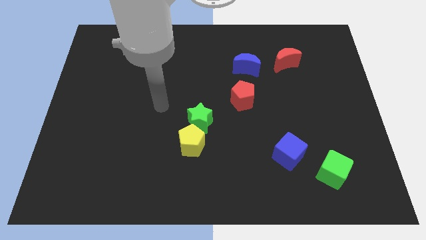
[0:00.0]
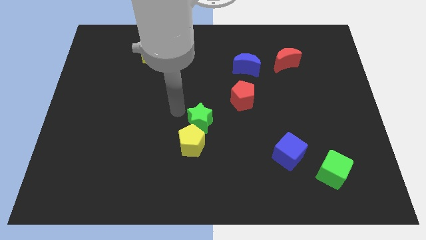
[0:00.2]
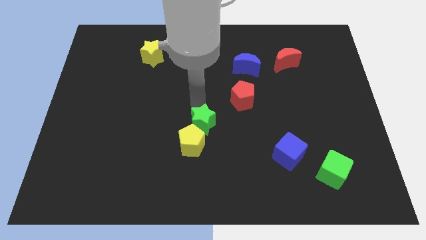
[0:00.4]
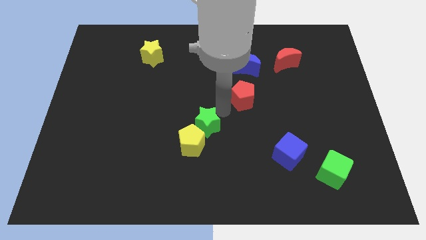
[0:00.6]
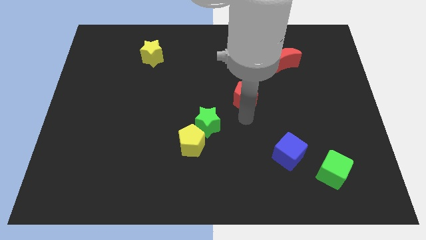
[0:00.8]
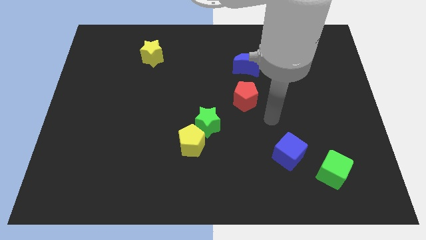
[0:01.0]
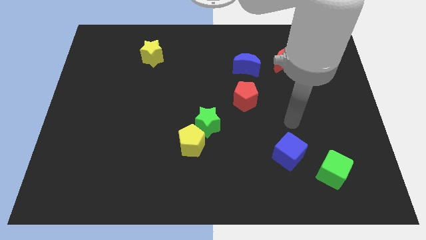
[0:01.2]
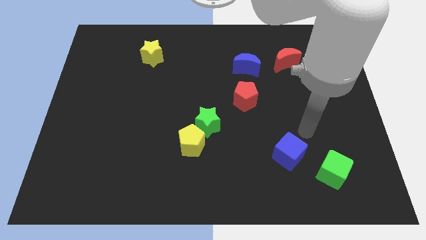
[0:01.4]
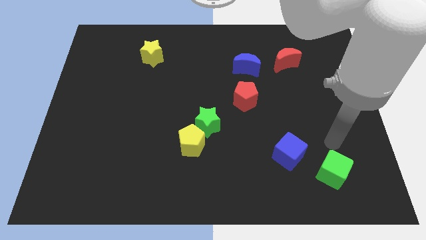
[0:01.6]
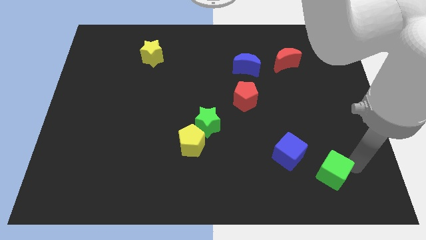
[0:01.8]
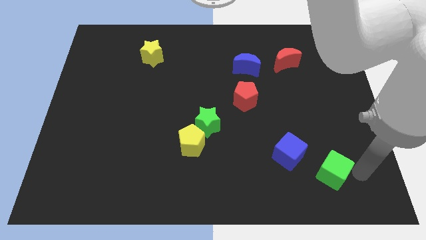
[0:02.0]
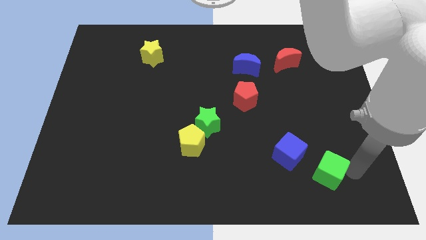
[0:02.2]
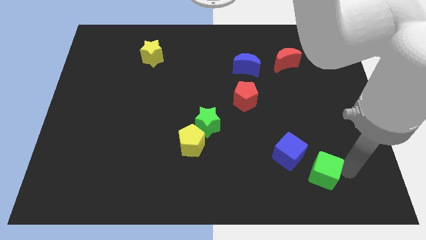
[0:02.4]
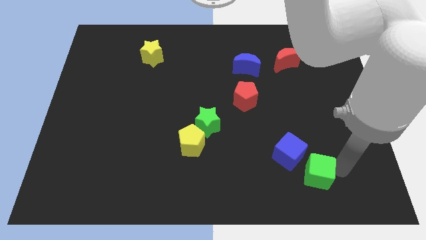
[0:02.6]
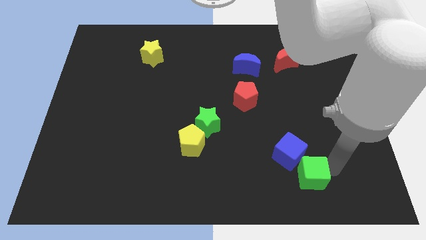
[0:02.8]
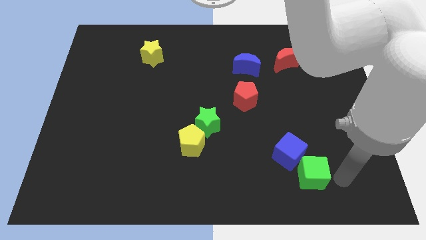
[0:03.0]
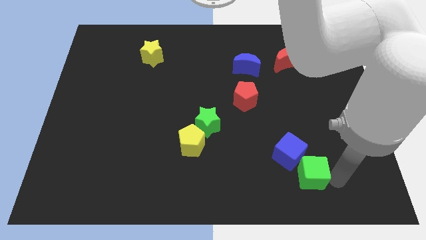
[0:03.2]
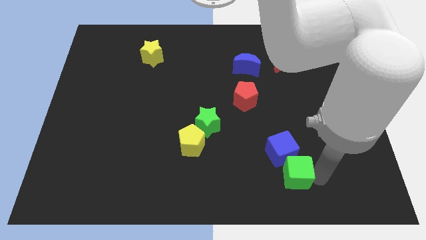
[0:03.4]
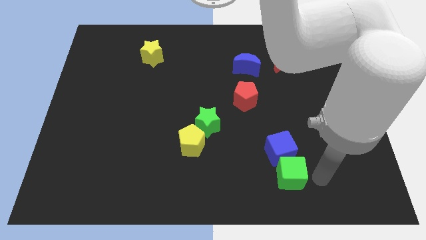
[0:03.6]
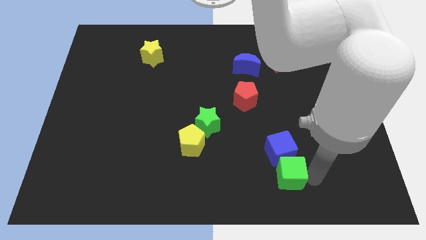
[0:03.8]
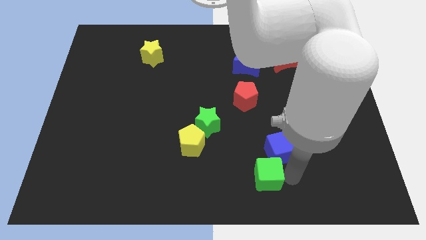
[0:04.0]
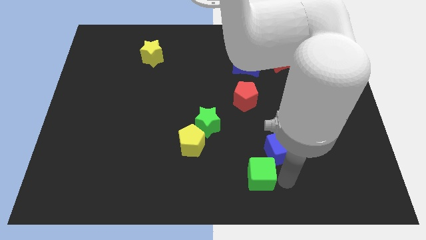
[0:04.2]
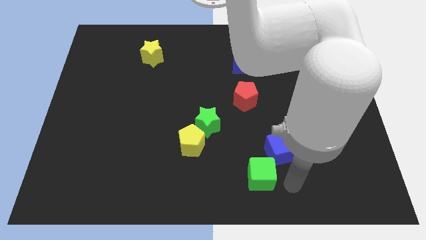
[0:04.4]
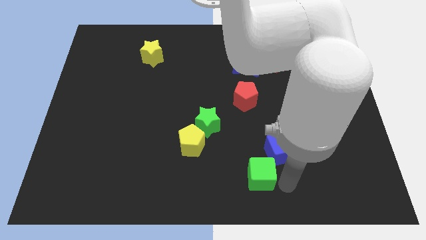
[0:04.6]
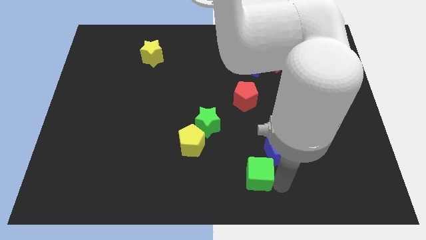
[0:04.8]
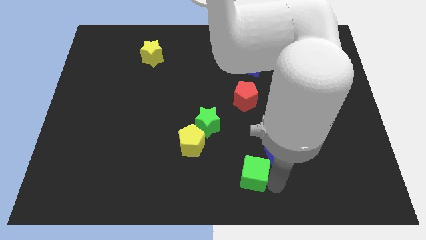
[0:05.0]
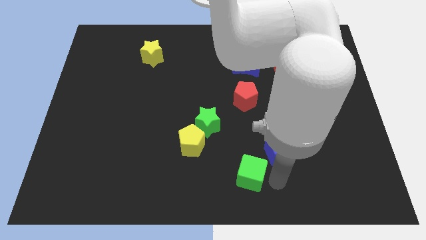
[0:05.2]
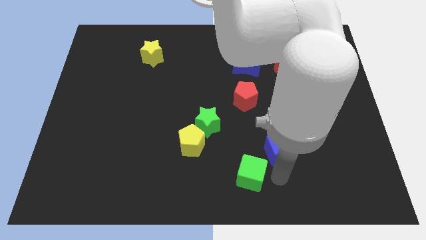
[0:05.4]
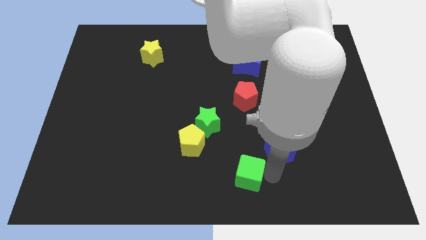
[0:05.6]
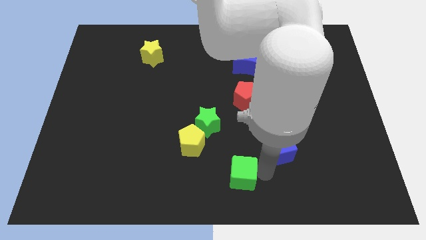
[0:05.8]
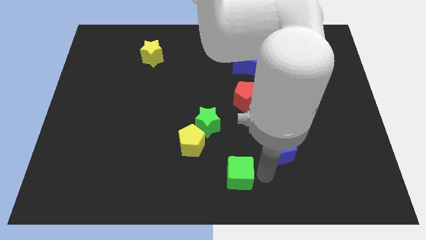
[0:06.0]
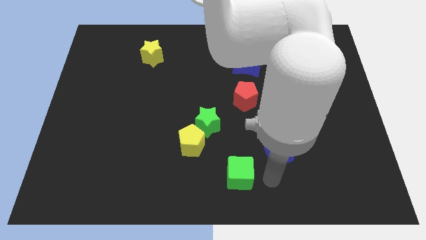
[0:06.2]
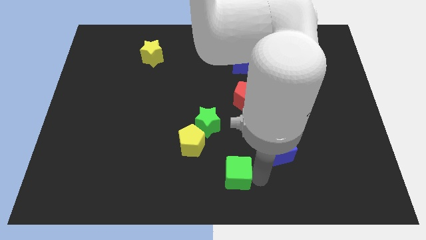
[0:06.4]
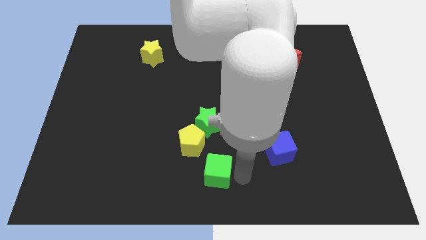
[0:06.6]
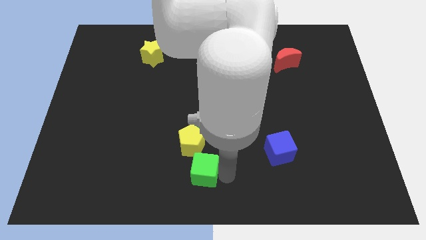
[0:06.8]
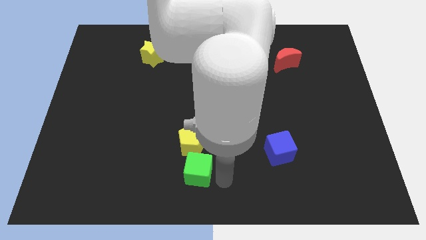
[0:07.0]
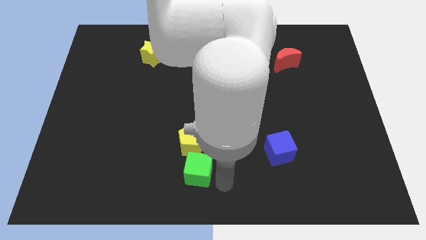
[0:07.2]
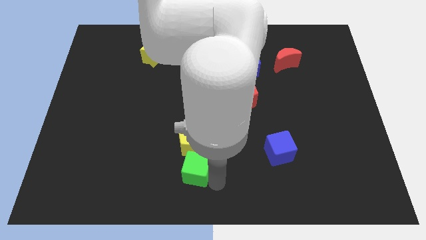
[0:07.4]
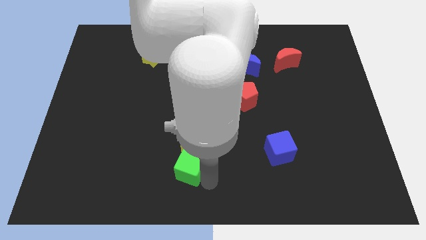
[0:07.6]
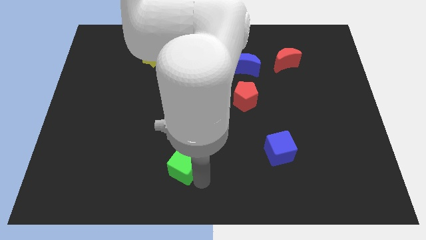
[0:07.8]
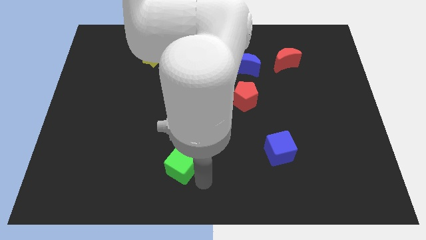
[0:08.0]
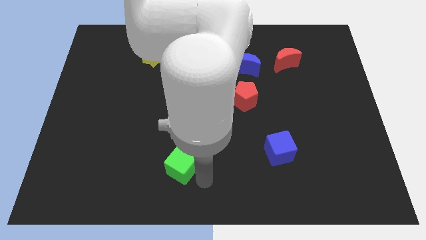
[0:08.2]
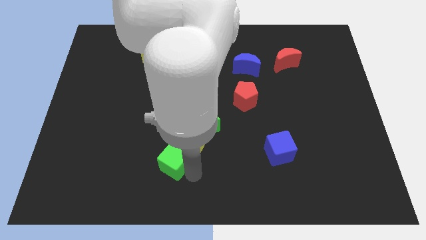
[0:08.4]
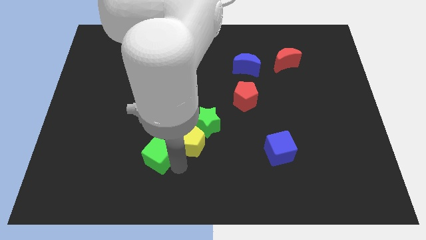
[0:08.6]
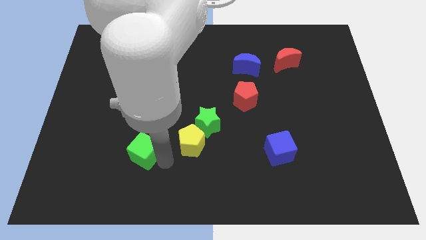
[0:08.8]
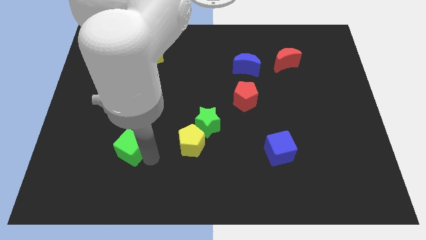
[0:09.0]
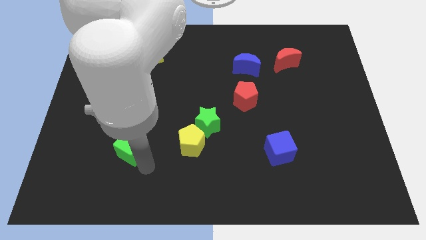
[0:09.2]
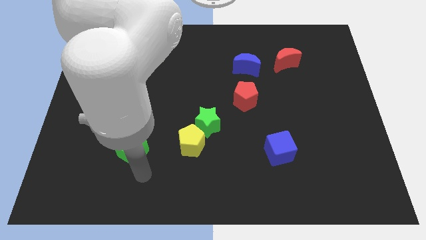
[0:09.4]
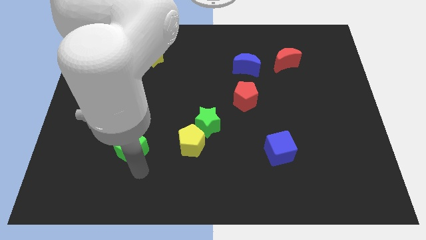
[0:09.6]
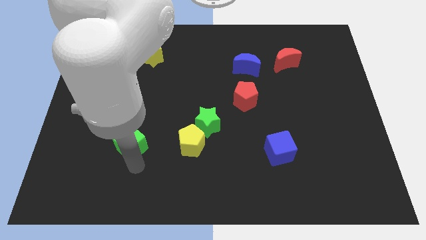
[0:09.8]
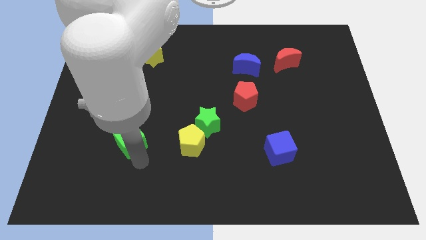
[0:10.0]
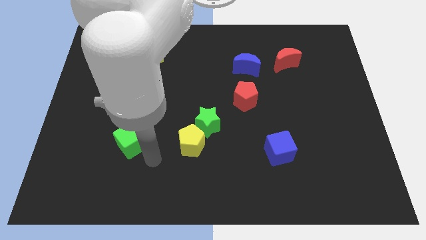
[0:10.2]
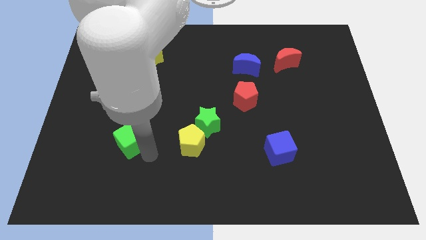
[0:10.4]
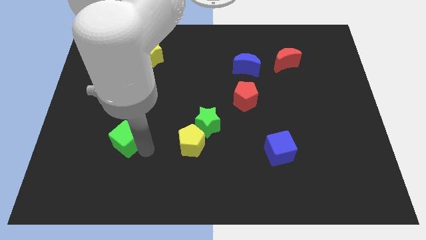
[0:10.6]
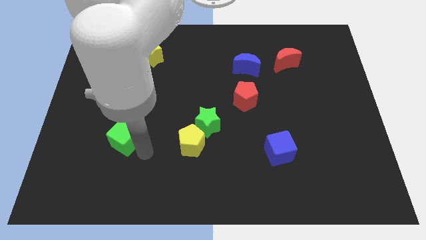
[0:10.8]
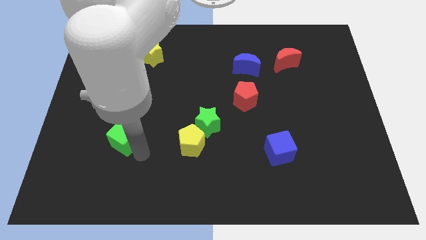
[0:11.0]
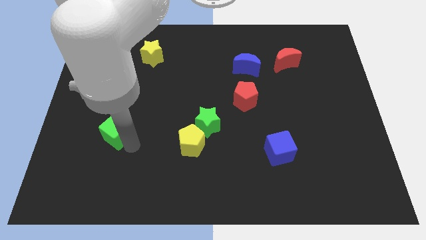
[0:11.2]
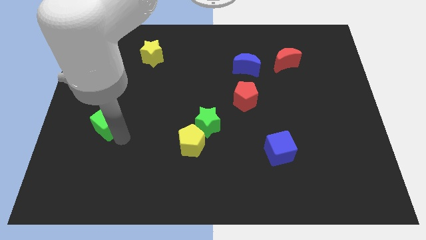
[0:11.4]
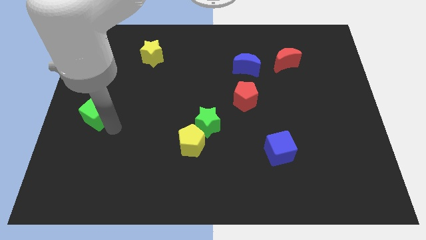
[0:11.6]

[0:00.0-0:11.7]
move the green cube to the center left
